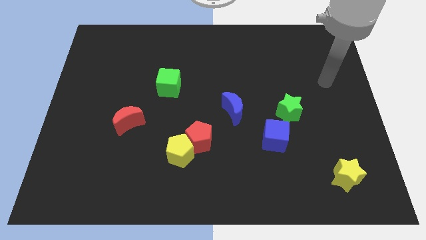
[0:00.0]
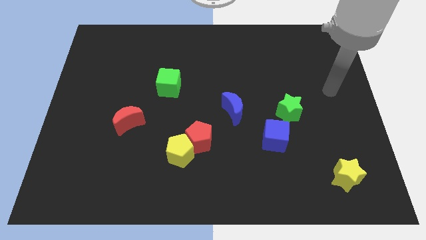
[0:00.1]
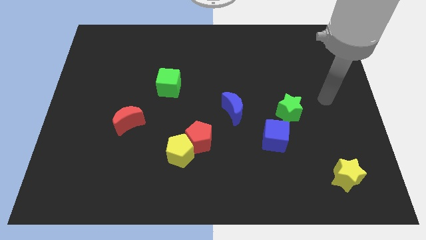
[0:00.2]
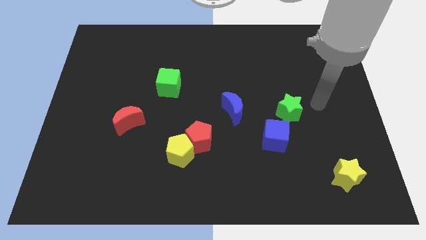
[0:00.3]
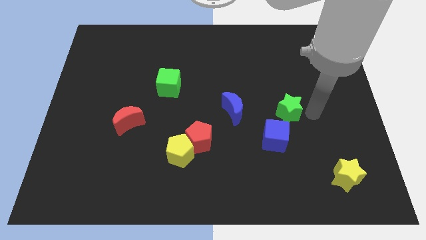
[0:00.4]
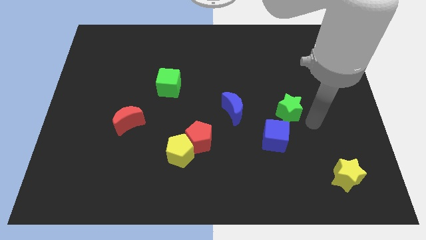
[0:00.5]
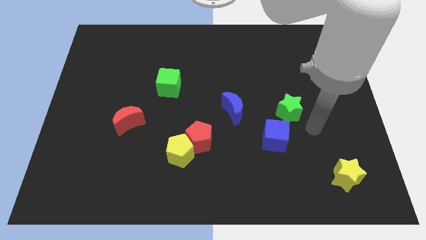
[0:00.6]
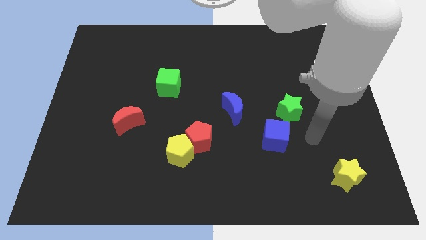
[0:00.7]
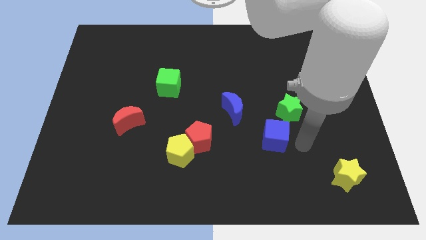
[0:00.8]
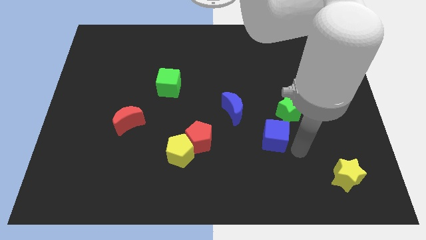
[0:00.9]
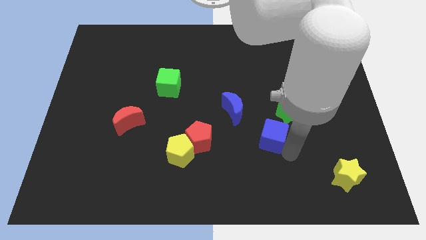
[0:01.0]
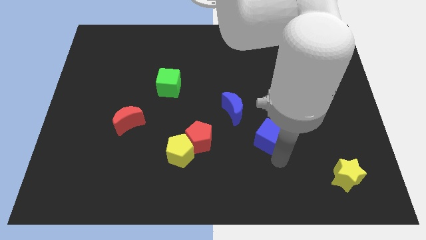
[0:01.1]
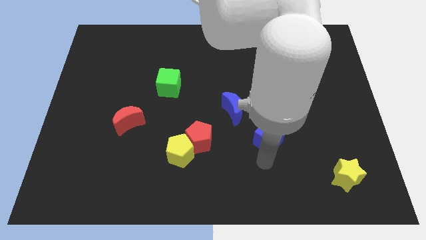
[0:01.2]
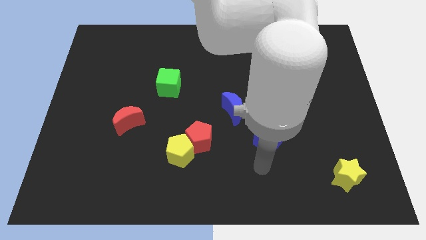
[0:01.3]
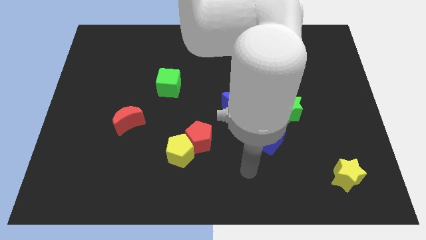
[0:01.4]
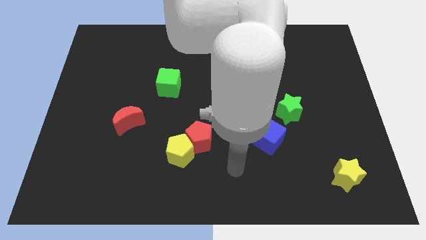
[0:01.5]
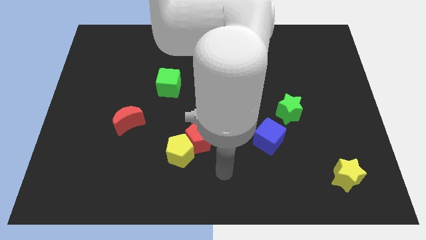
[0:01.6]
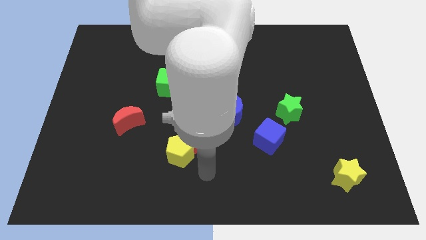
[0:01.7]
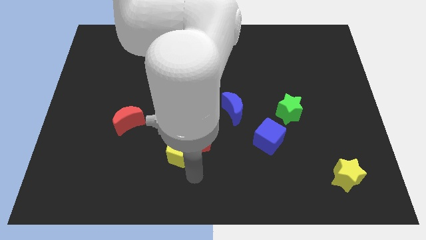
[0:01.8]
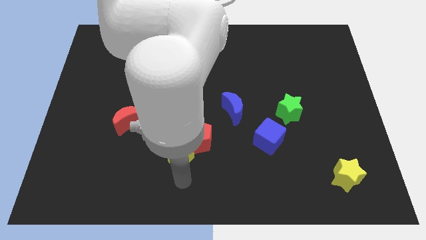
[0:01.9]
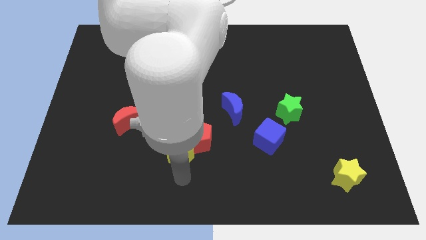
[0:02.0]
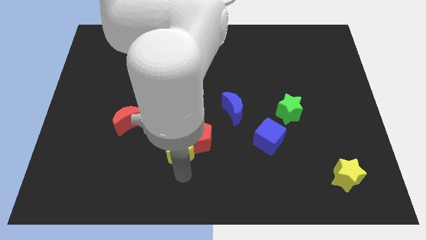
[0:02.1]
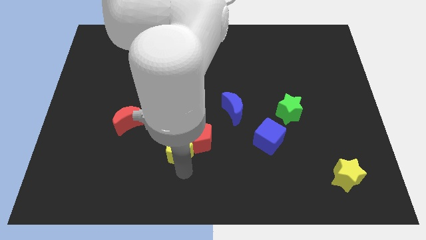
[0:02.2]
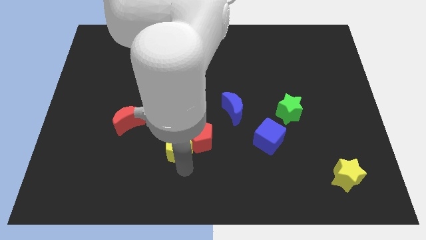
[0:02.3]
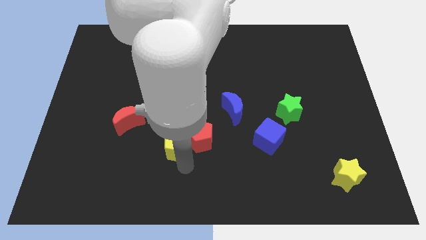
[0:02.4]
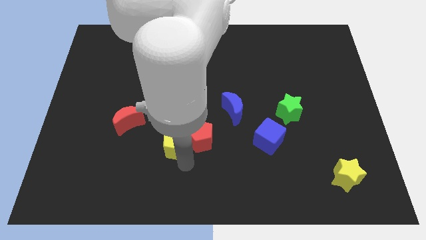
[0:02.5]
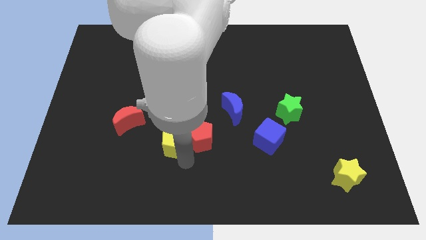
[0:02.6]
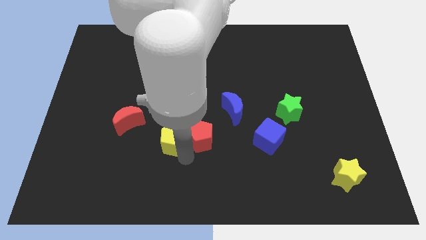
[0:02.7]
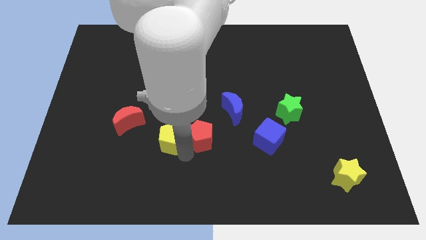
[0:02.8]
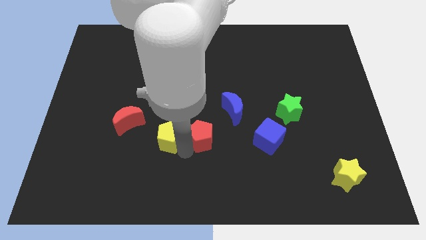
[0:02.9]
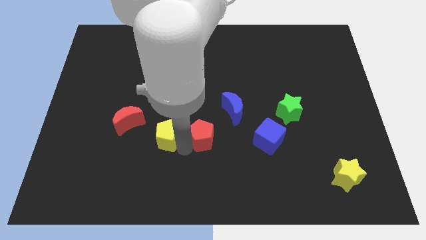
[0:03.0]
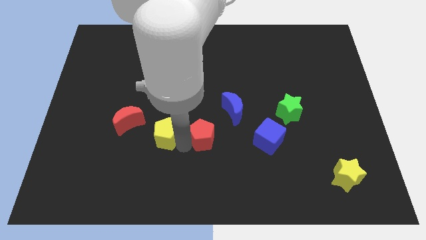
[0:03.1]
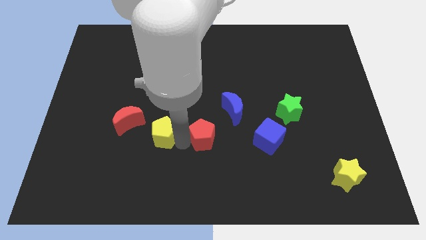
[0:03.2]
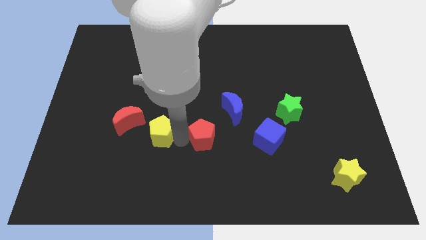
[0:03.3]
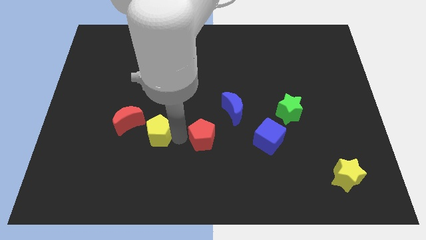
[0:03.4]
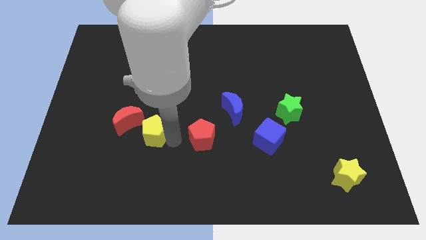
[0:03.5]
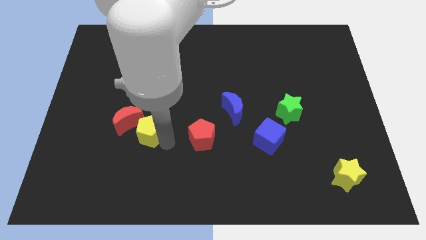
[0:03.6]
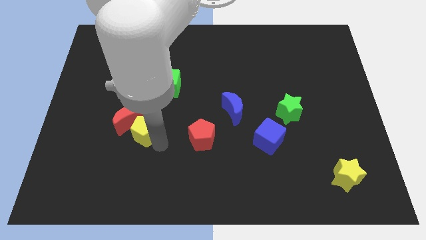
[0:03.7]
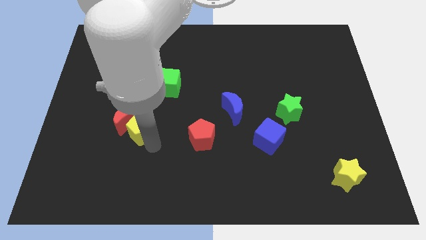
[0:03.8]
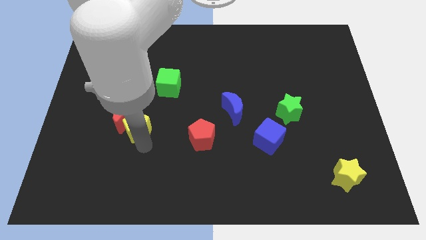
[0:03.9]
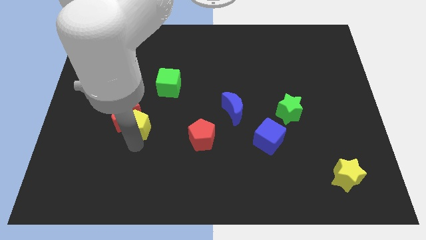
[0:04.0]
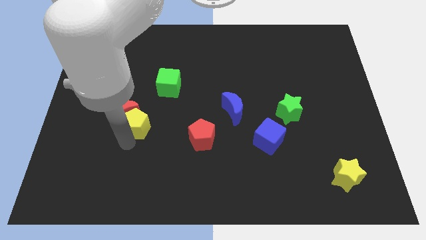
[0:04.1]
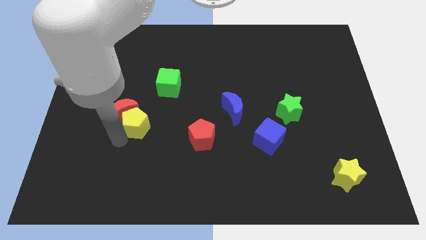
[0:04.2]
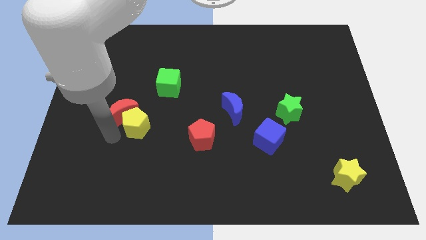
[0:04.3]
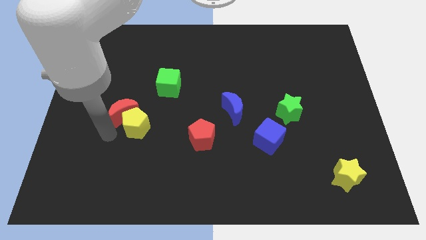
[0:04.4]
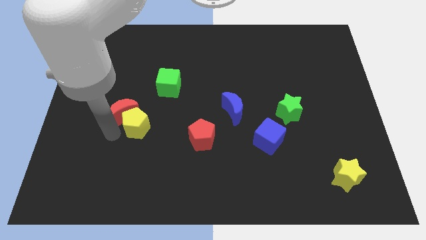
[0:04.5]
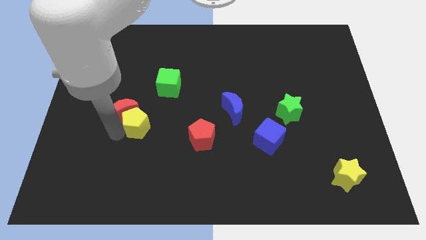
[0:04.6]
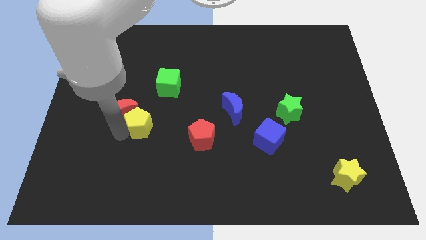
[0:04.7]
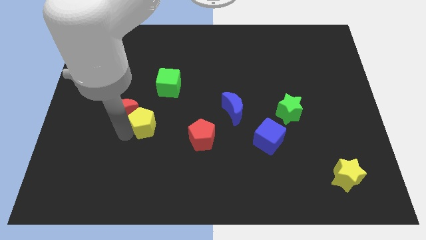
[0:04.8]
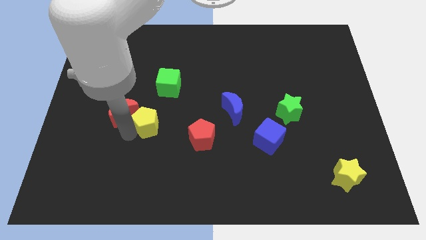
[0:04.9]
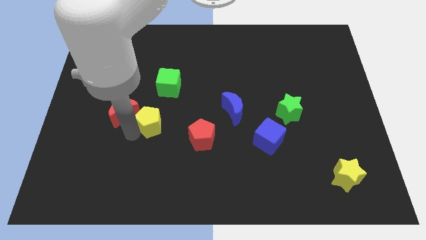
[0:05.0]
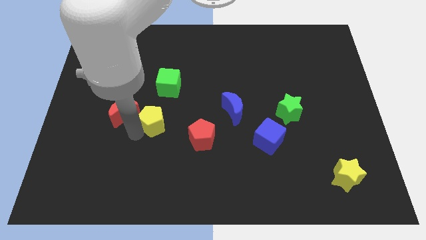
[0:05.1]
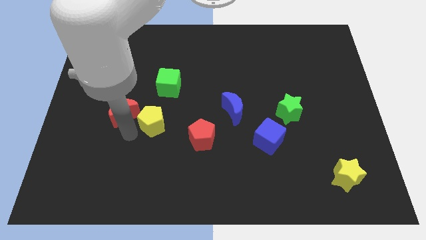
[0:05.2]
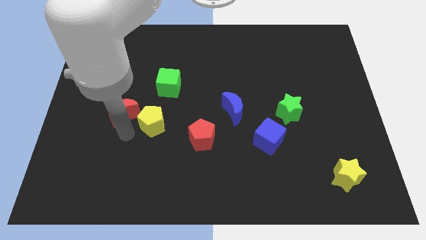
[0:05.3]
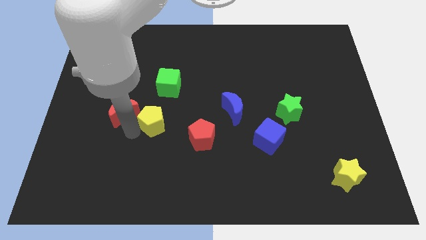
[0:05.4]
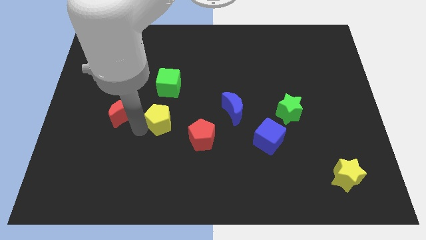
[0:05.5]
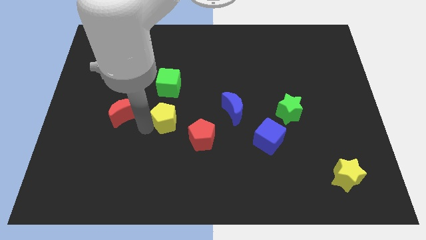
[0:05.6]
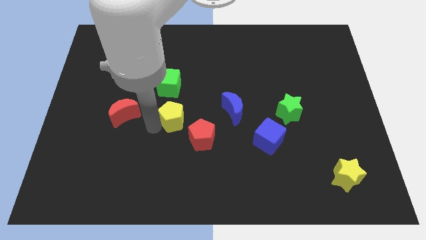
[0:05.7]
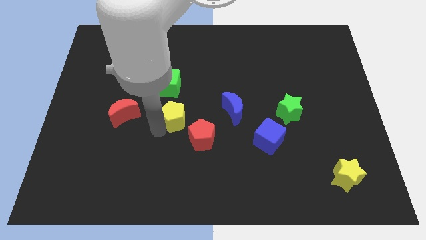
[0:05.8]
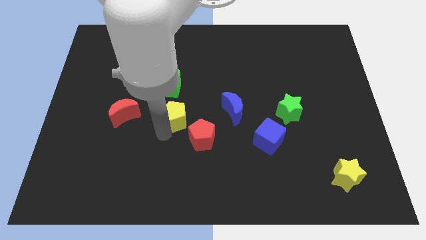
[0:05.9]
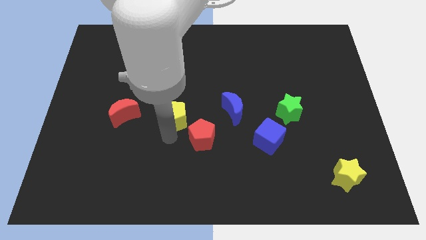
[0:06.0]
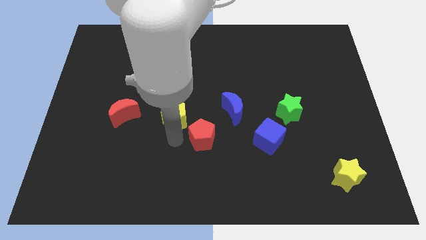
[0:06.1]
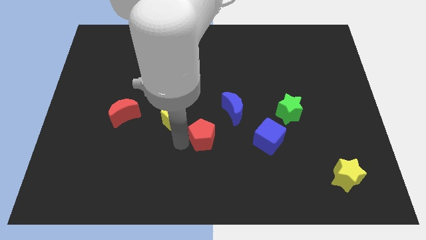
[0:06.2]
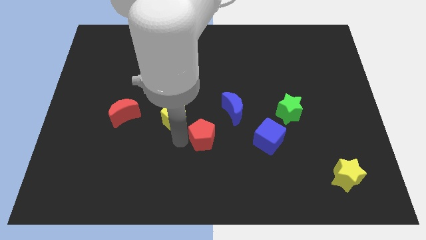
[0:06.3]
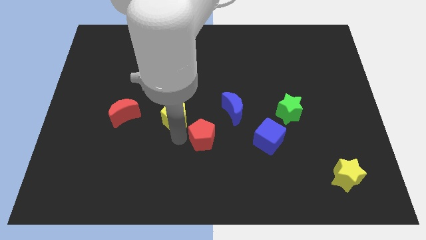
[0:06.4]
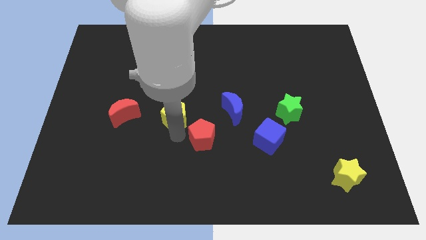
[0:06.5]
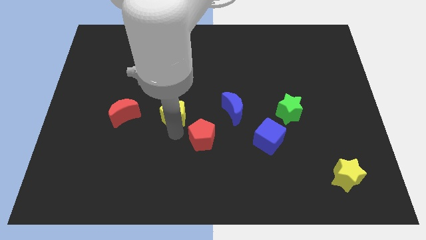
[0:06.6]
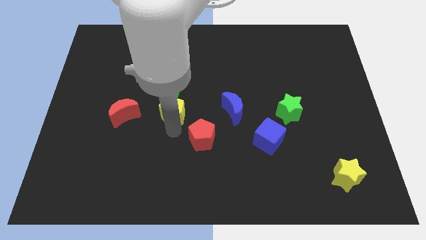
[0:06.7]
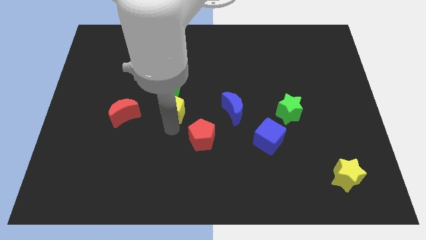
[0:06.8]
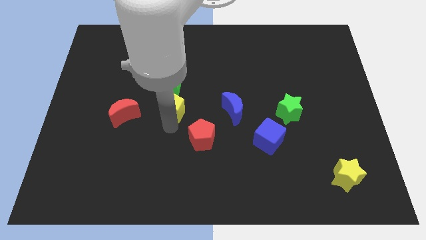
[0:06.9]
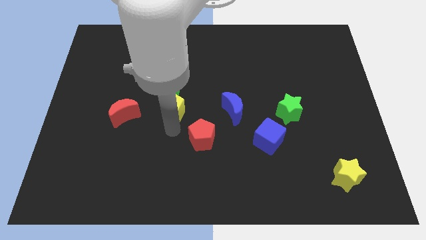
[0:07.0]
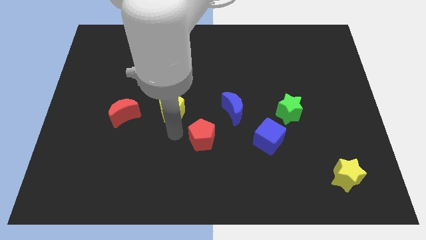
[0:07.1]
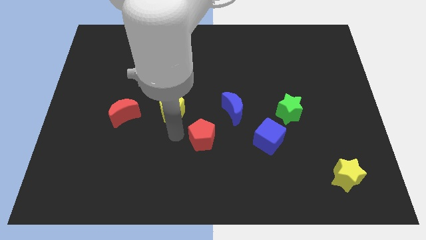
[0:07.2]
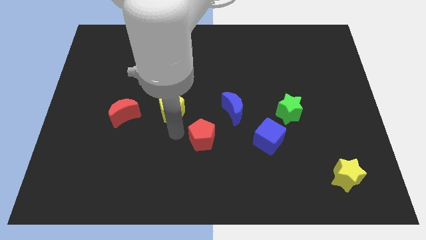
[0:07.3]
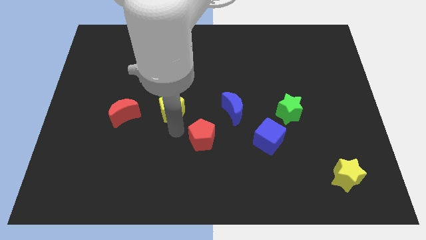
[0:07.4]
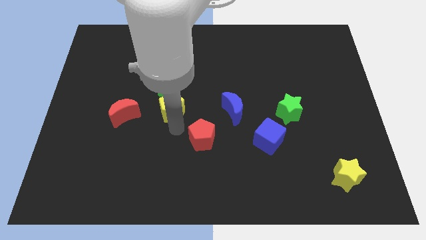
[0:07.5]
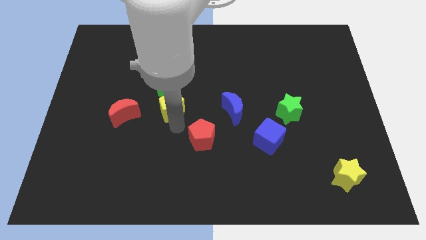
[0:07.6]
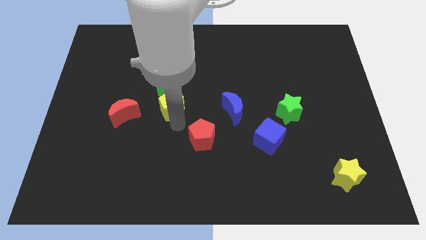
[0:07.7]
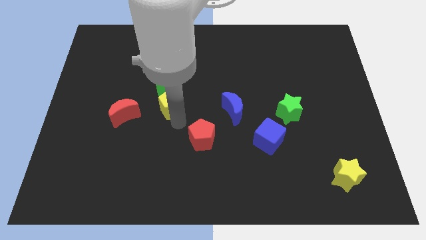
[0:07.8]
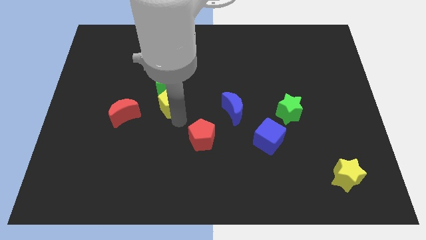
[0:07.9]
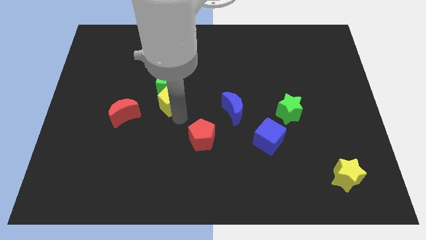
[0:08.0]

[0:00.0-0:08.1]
slide the yellow pentagon close to the green cube
